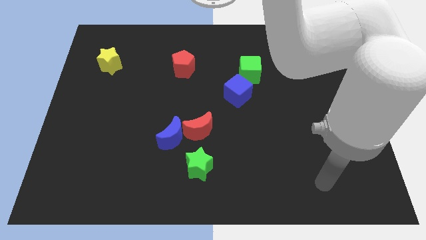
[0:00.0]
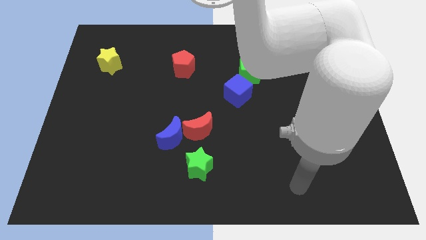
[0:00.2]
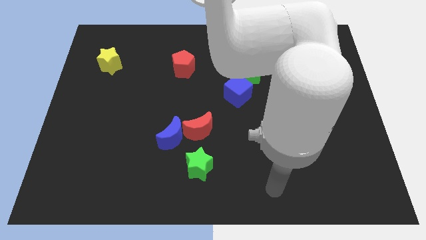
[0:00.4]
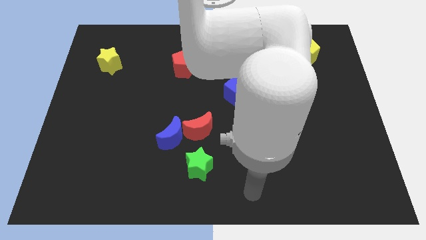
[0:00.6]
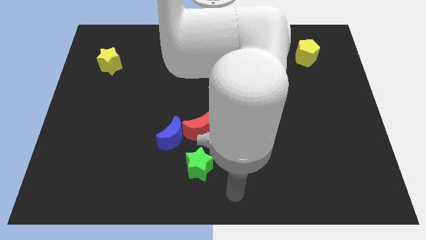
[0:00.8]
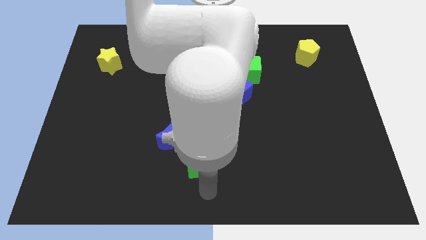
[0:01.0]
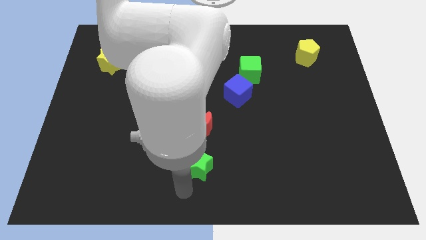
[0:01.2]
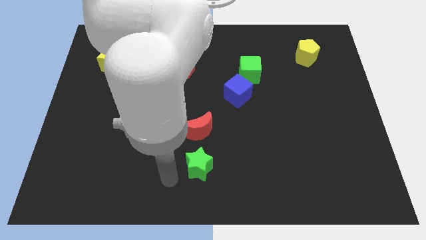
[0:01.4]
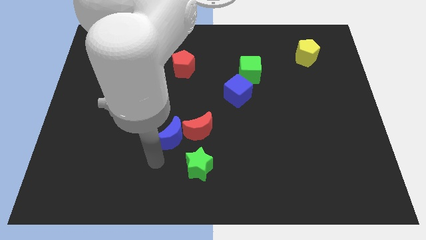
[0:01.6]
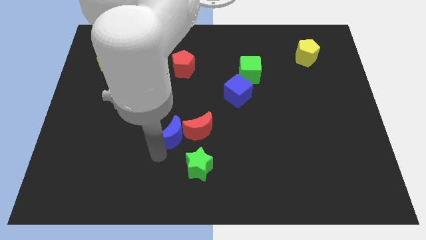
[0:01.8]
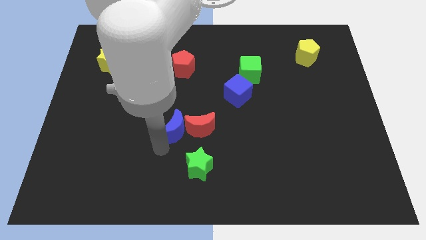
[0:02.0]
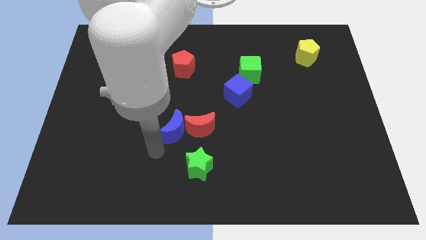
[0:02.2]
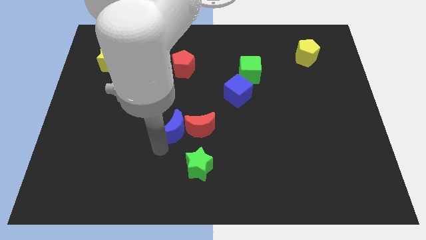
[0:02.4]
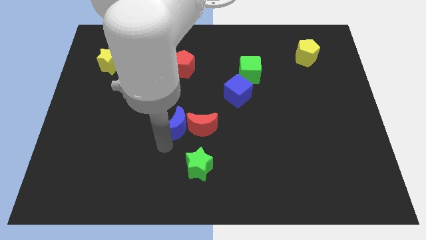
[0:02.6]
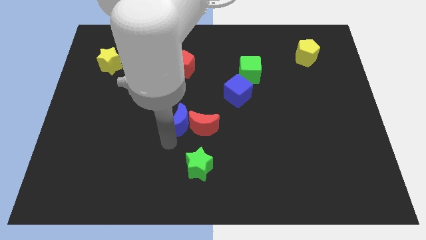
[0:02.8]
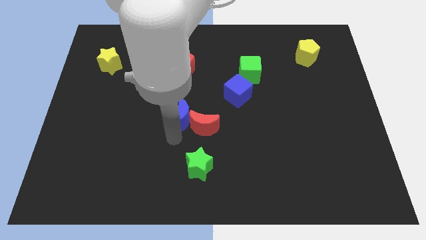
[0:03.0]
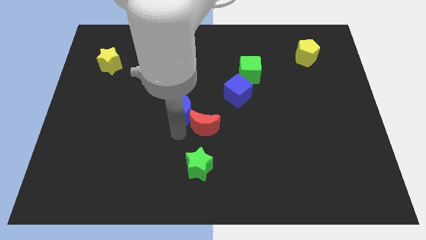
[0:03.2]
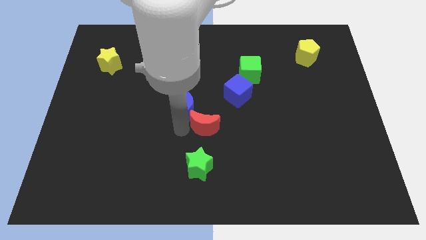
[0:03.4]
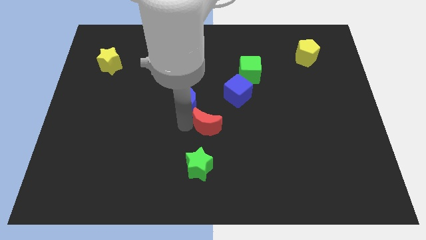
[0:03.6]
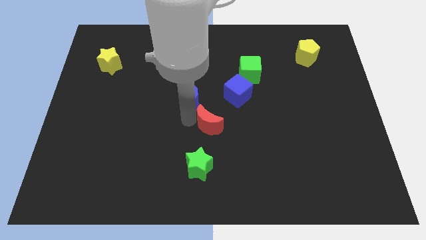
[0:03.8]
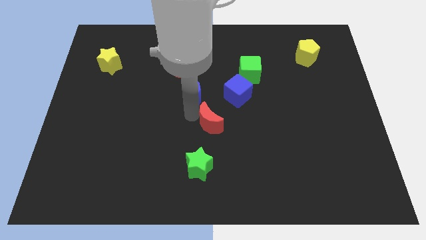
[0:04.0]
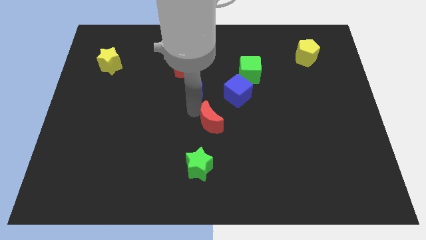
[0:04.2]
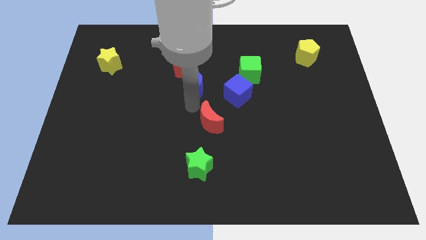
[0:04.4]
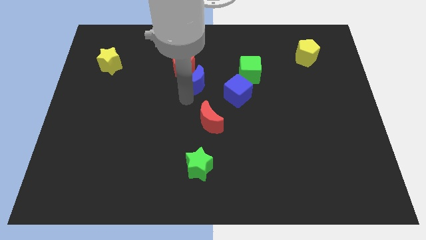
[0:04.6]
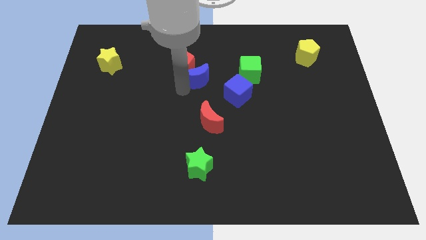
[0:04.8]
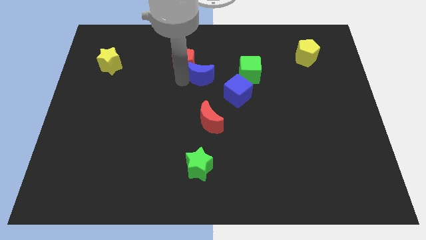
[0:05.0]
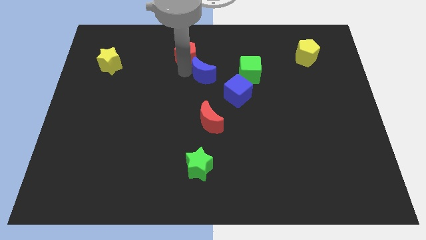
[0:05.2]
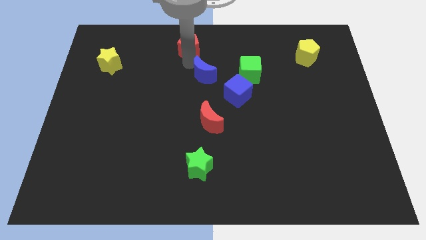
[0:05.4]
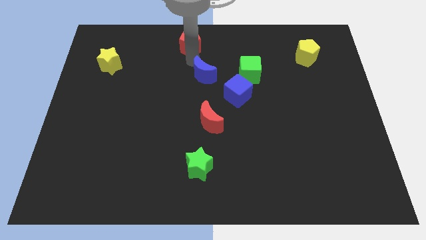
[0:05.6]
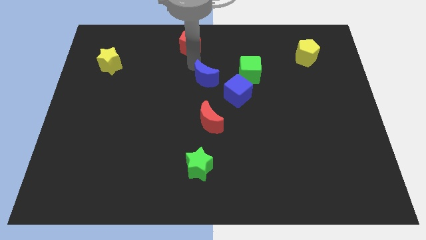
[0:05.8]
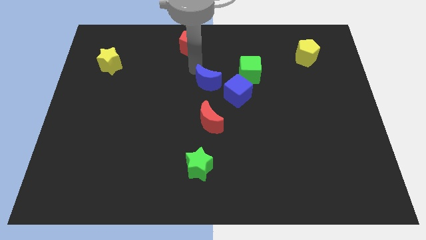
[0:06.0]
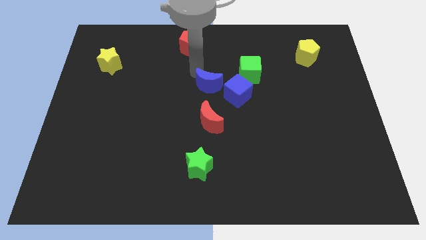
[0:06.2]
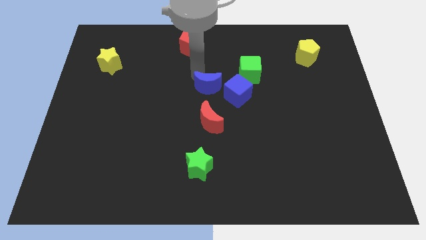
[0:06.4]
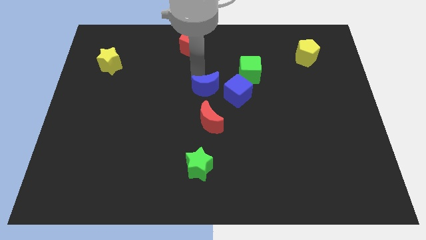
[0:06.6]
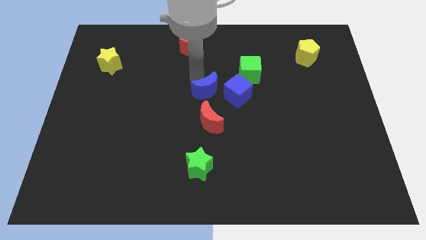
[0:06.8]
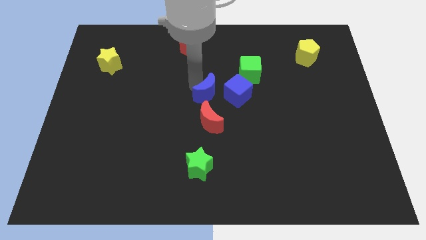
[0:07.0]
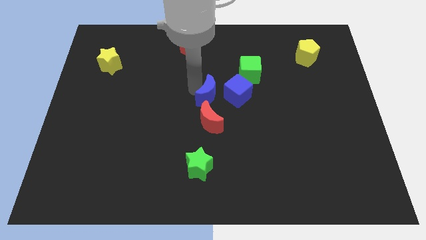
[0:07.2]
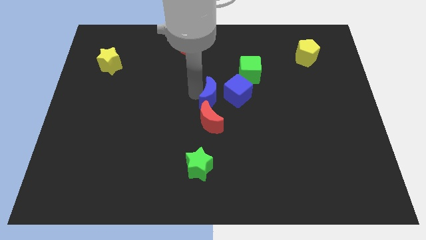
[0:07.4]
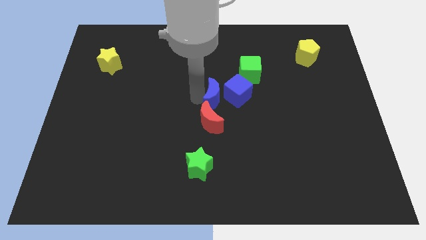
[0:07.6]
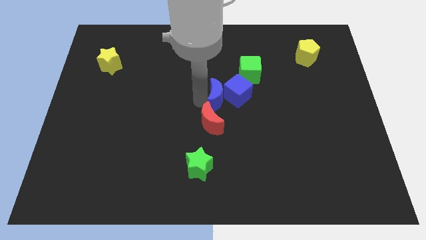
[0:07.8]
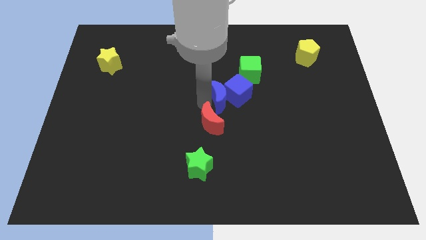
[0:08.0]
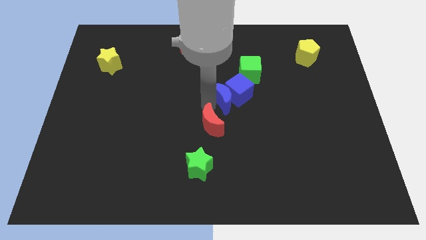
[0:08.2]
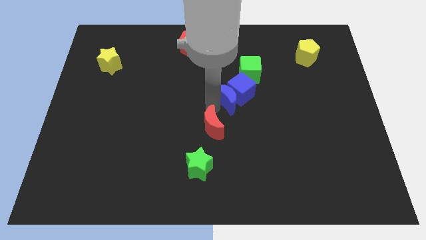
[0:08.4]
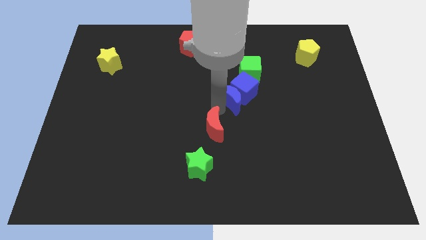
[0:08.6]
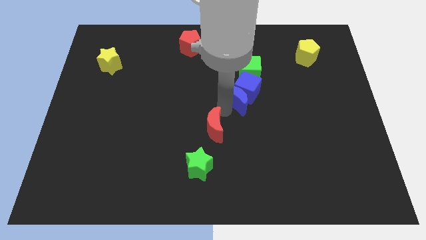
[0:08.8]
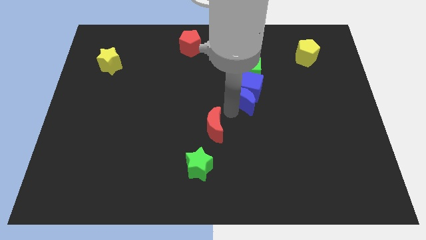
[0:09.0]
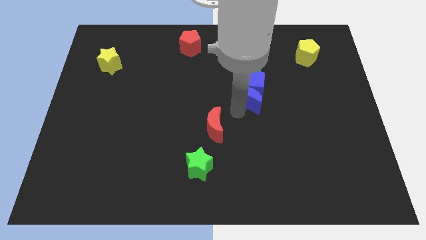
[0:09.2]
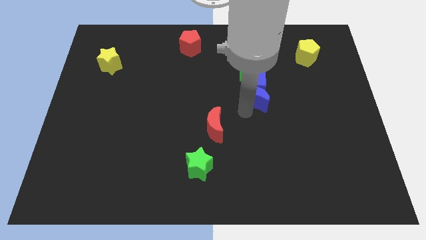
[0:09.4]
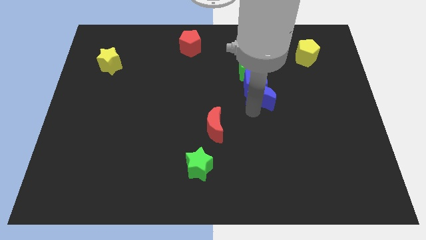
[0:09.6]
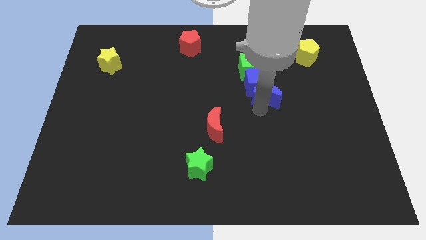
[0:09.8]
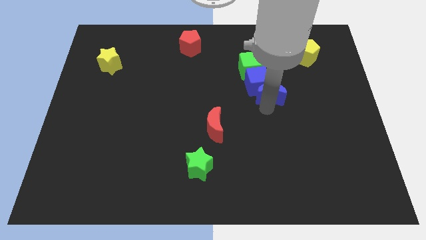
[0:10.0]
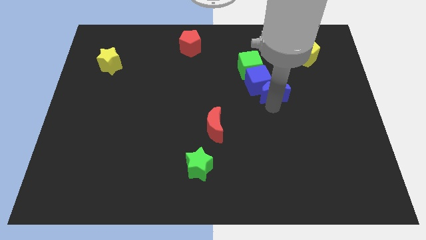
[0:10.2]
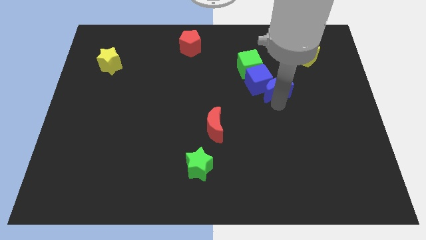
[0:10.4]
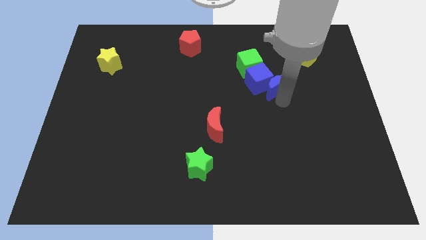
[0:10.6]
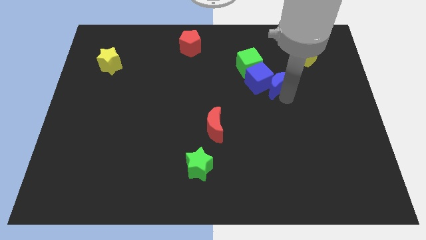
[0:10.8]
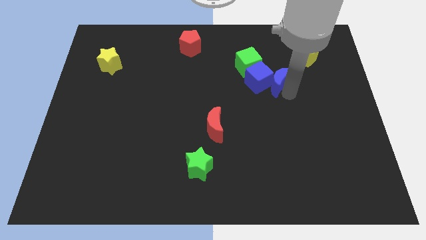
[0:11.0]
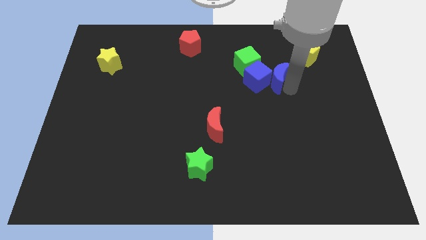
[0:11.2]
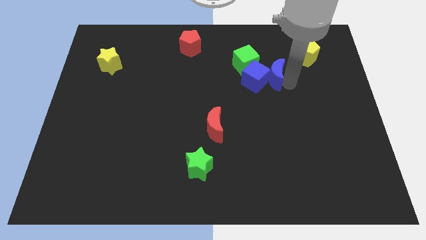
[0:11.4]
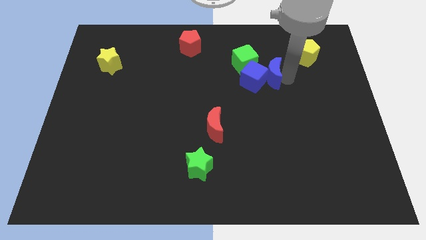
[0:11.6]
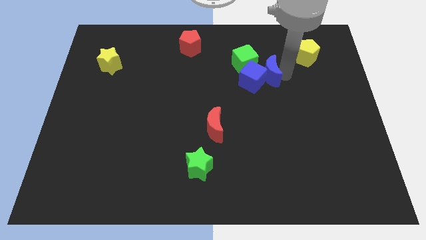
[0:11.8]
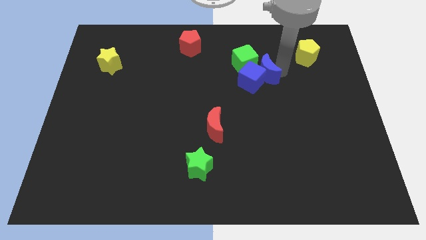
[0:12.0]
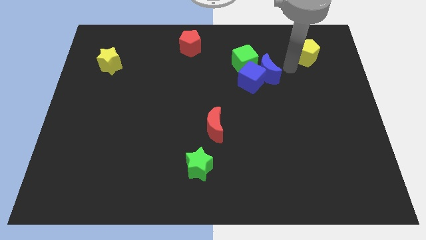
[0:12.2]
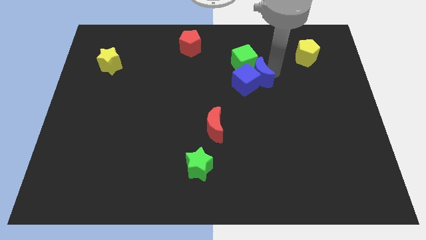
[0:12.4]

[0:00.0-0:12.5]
slide the blue moon to the green cube

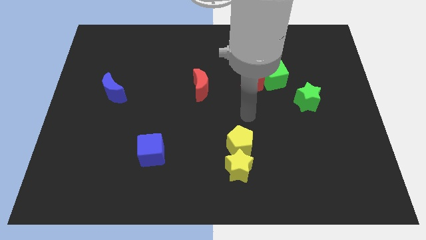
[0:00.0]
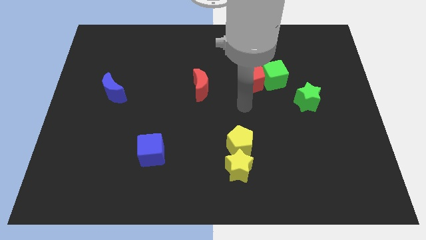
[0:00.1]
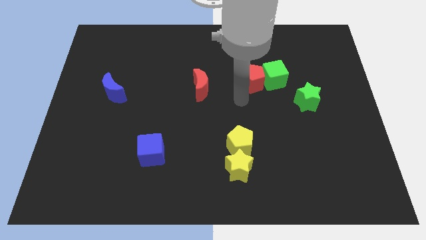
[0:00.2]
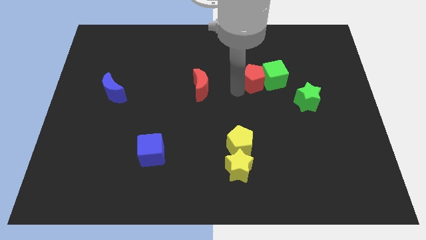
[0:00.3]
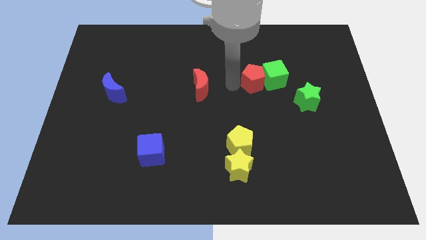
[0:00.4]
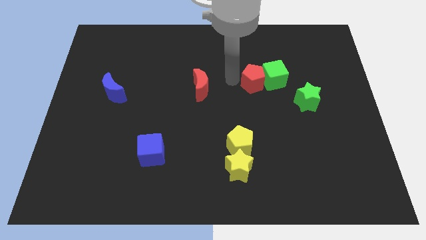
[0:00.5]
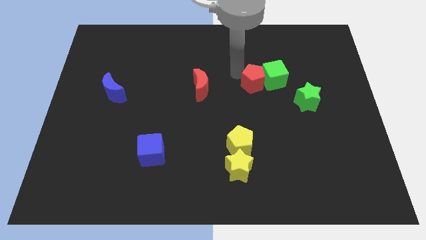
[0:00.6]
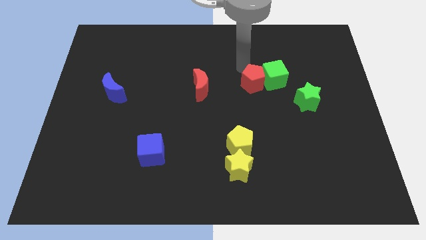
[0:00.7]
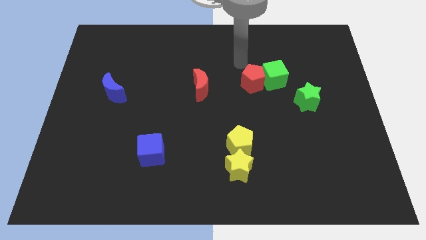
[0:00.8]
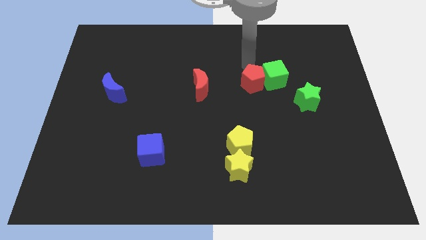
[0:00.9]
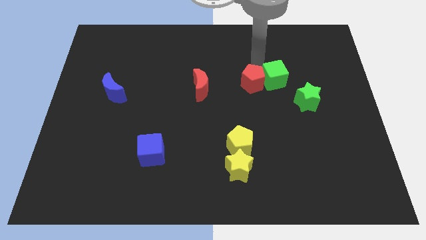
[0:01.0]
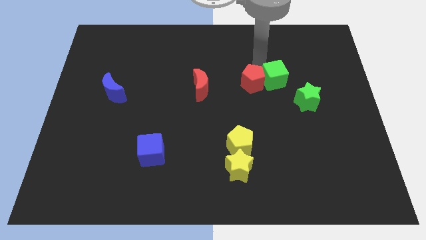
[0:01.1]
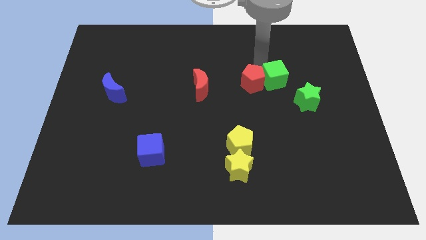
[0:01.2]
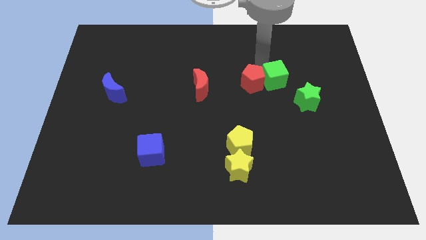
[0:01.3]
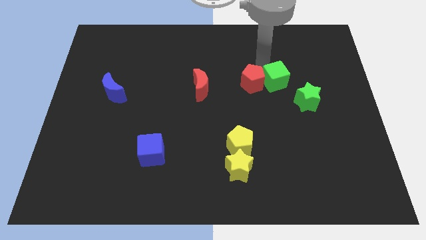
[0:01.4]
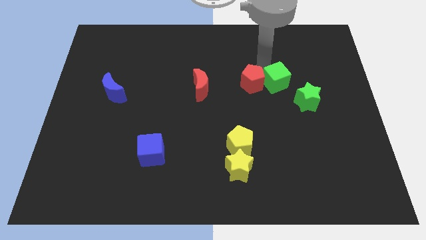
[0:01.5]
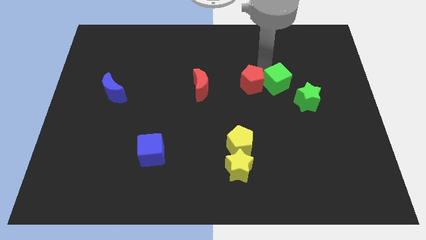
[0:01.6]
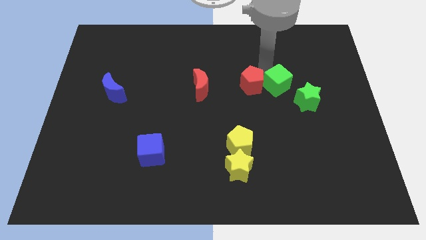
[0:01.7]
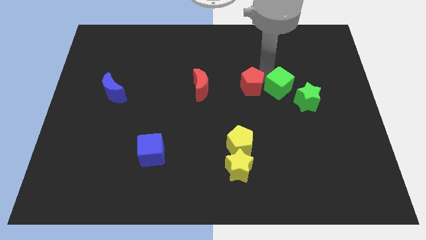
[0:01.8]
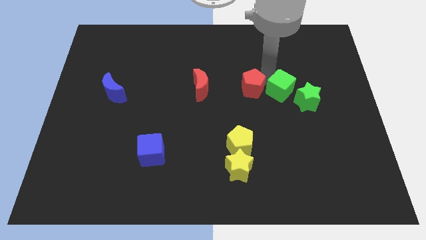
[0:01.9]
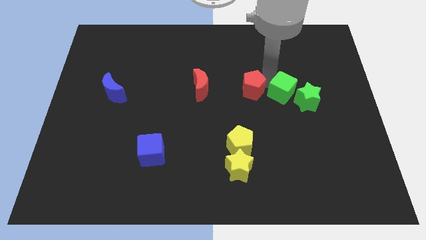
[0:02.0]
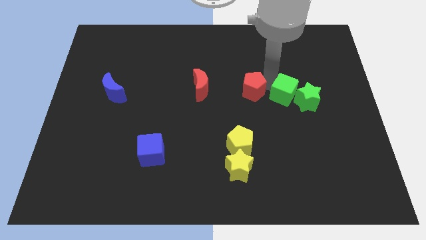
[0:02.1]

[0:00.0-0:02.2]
slide the green cube close to the green star
